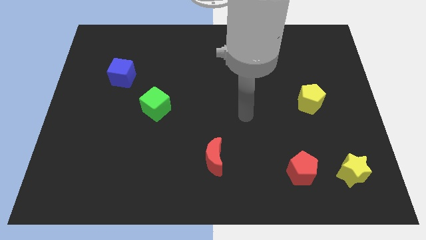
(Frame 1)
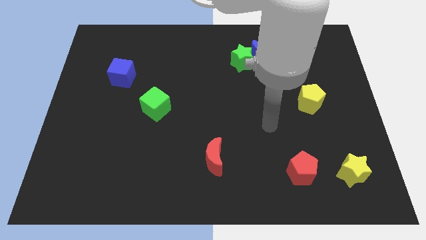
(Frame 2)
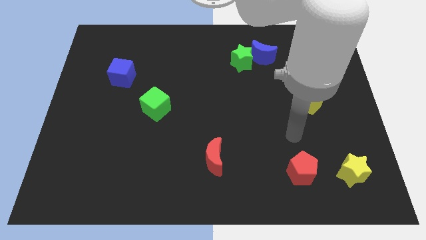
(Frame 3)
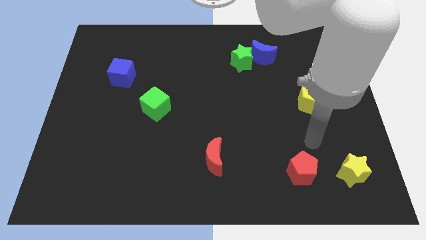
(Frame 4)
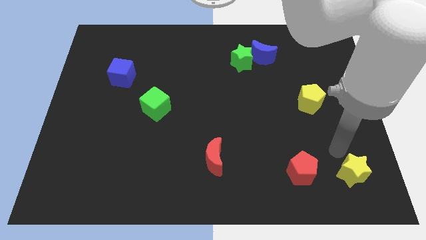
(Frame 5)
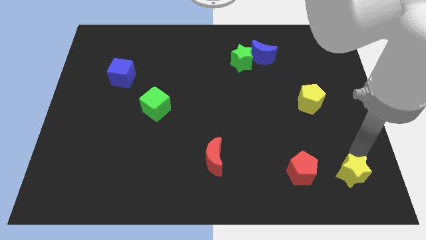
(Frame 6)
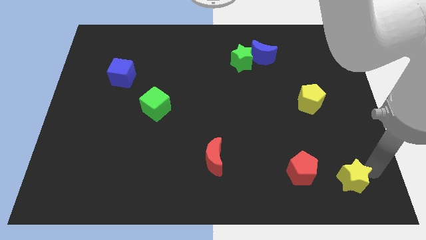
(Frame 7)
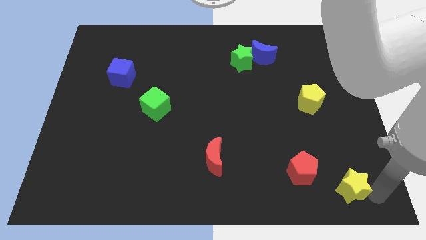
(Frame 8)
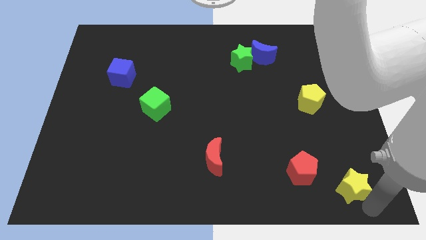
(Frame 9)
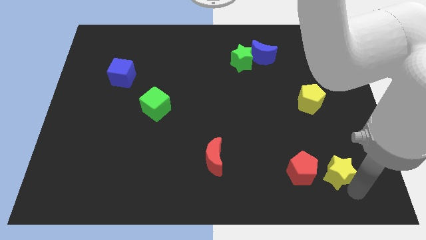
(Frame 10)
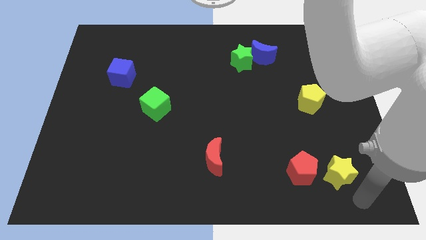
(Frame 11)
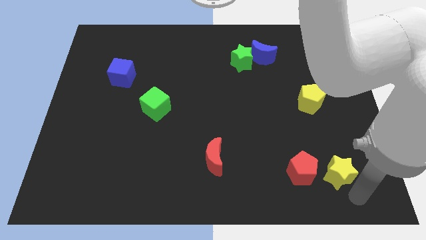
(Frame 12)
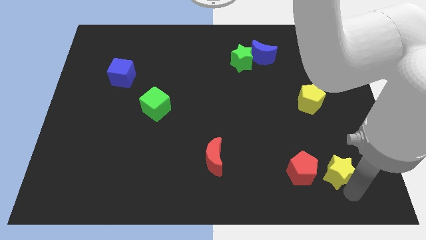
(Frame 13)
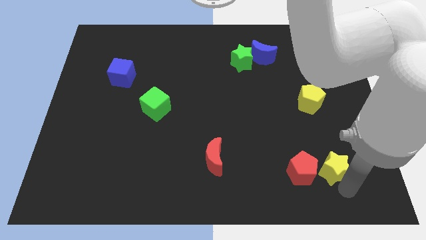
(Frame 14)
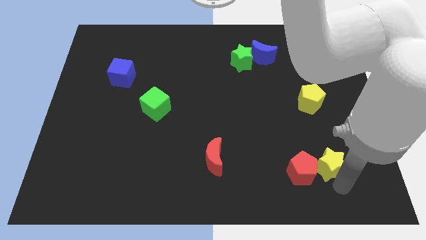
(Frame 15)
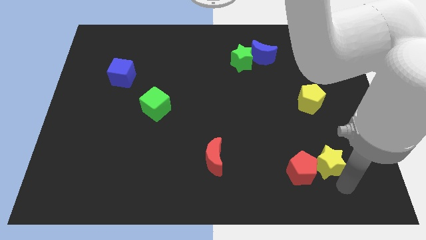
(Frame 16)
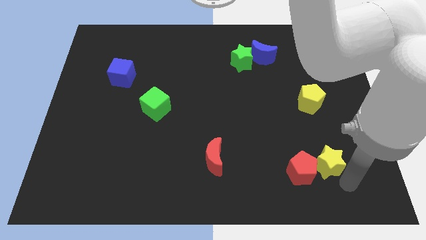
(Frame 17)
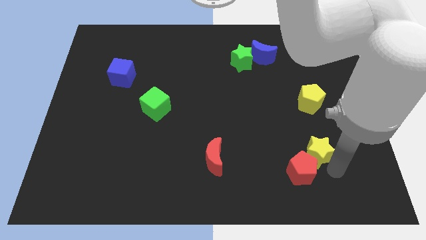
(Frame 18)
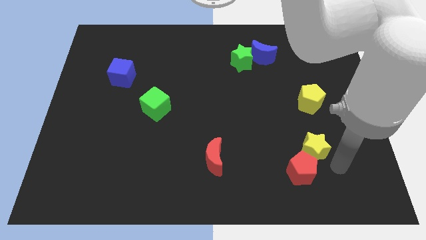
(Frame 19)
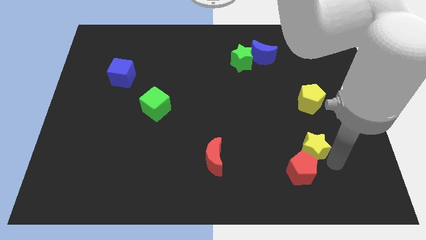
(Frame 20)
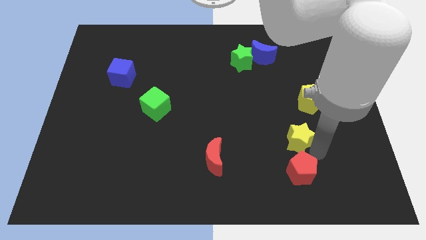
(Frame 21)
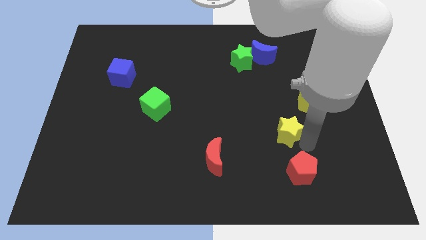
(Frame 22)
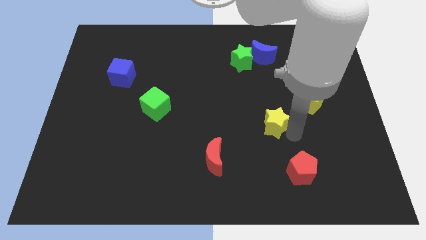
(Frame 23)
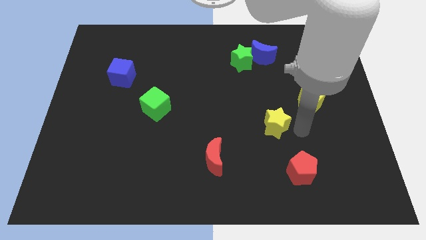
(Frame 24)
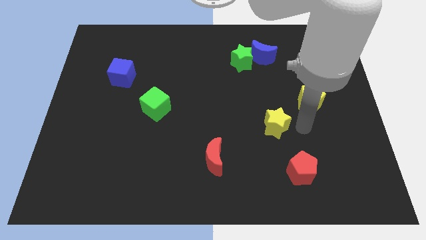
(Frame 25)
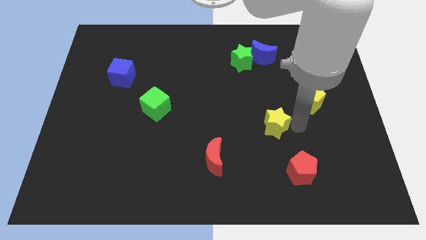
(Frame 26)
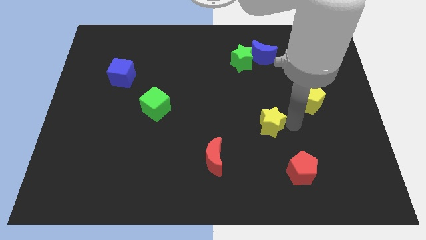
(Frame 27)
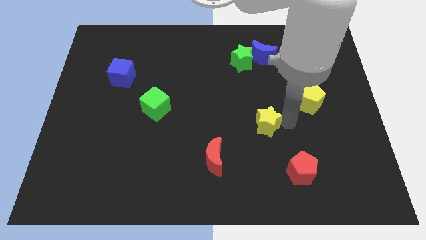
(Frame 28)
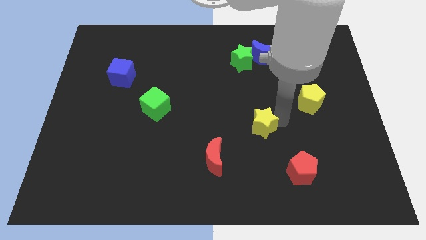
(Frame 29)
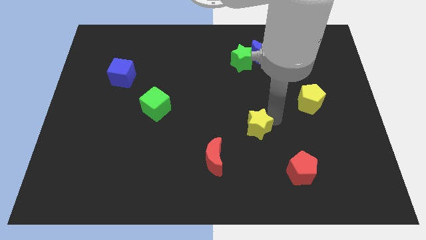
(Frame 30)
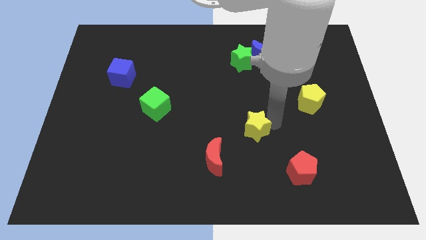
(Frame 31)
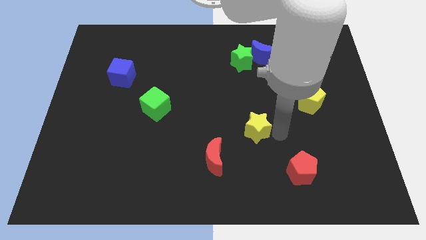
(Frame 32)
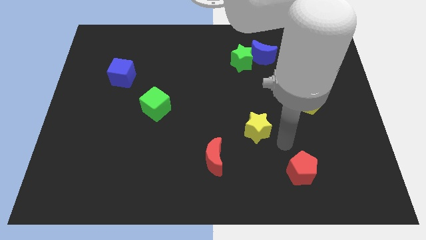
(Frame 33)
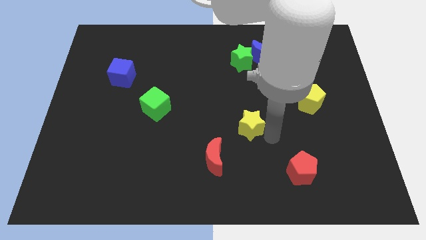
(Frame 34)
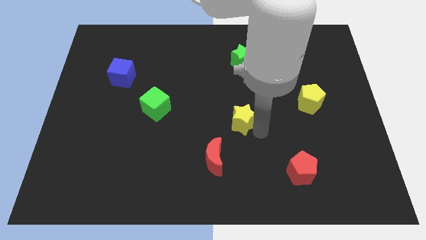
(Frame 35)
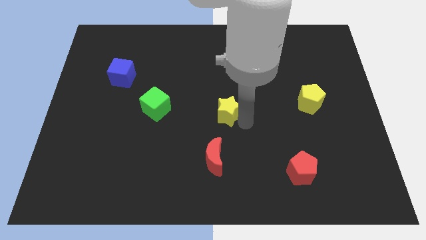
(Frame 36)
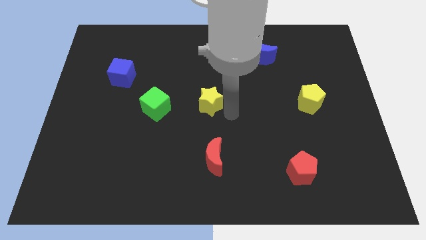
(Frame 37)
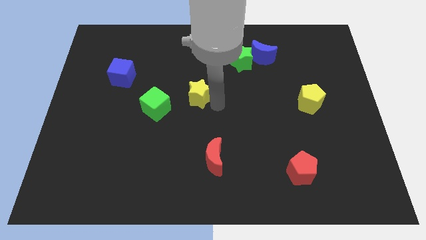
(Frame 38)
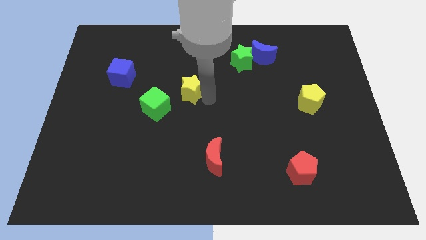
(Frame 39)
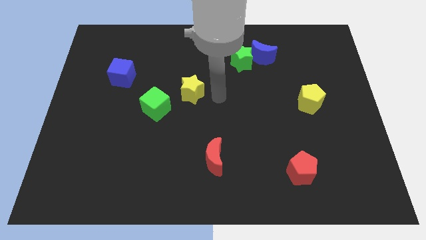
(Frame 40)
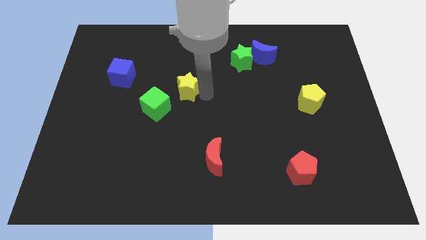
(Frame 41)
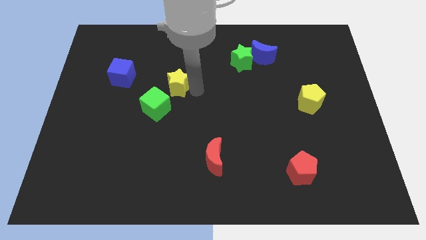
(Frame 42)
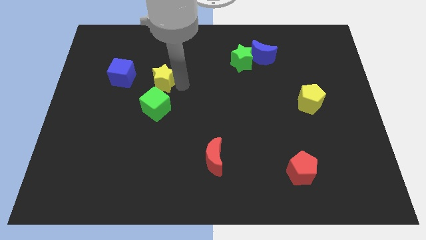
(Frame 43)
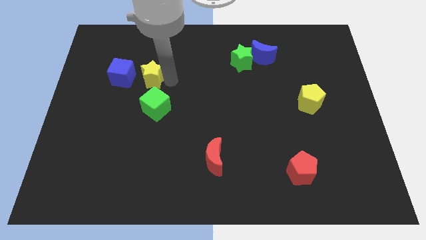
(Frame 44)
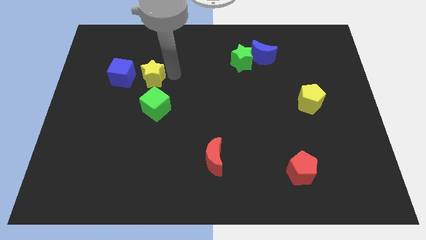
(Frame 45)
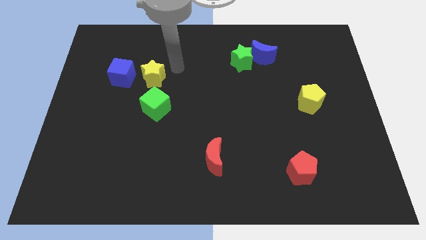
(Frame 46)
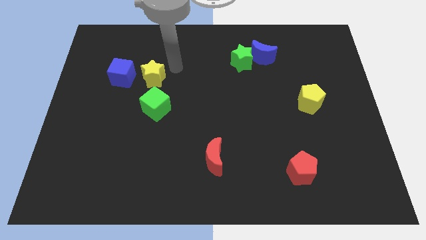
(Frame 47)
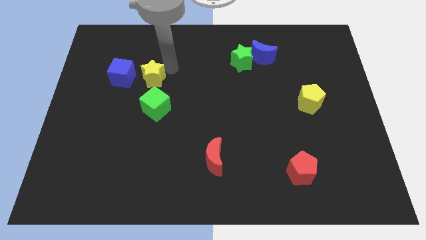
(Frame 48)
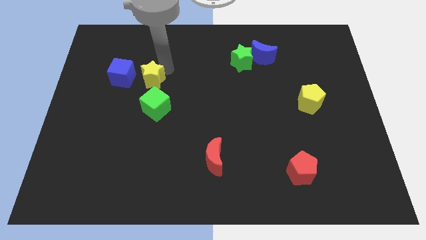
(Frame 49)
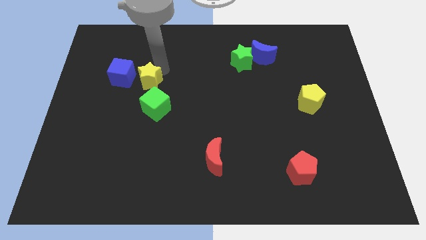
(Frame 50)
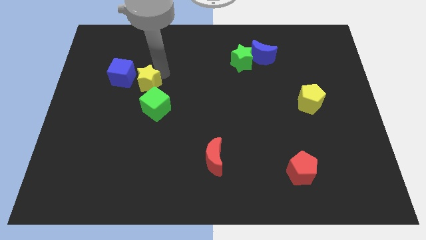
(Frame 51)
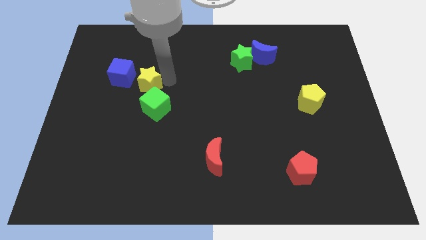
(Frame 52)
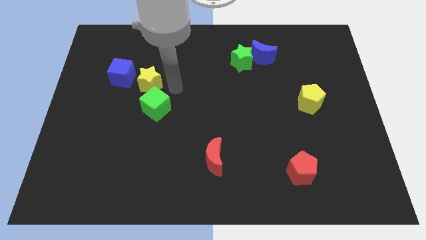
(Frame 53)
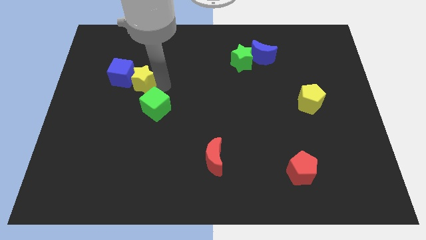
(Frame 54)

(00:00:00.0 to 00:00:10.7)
put the yellow star next to the blue cube

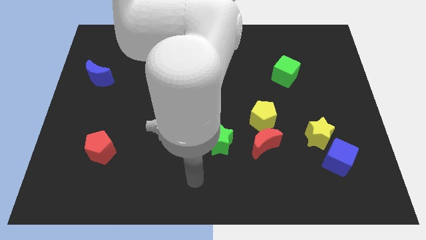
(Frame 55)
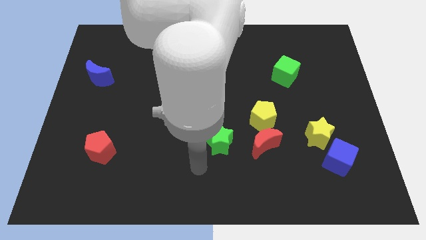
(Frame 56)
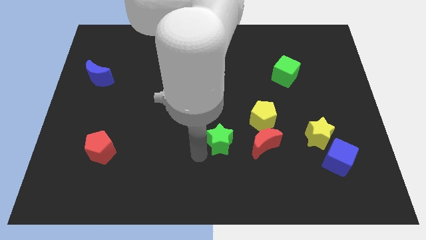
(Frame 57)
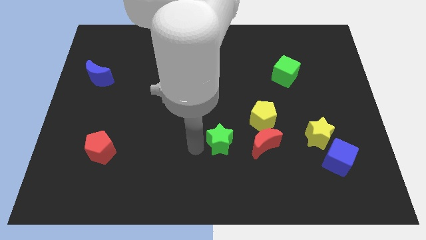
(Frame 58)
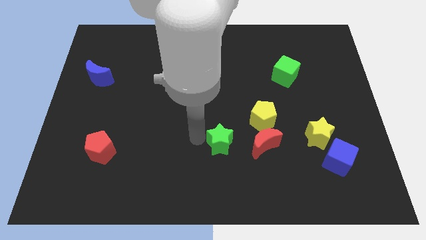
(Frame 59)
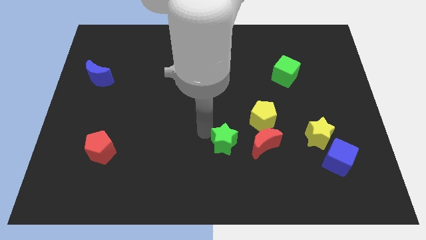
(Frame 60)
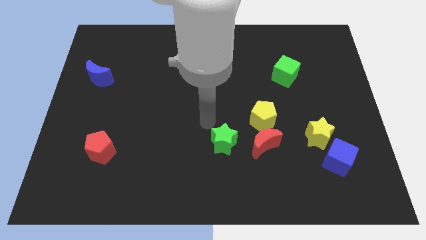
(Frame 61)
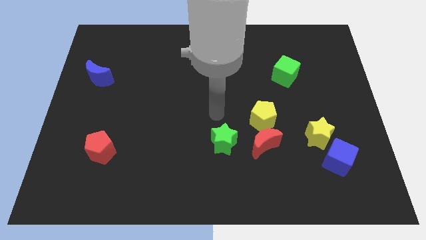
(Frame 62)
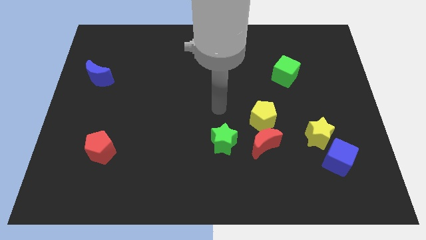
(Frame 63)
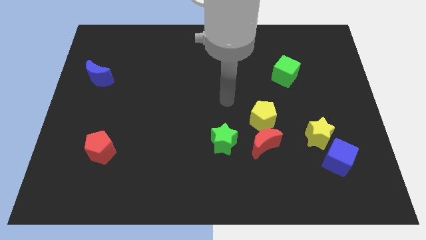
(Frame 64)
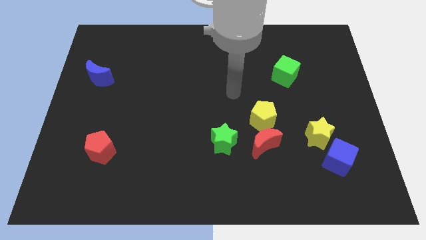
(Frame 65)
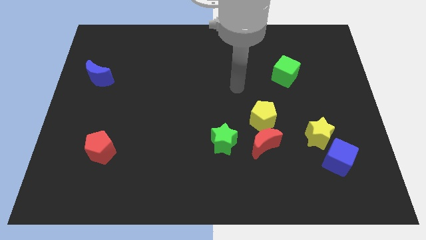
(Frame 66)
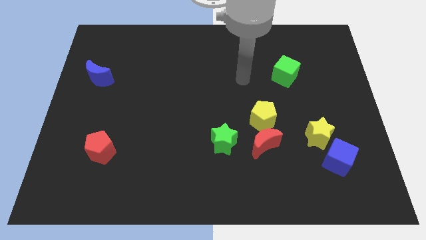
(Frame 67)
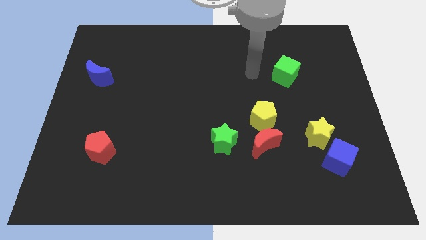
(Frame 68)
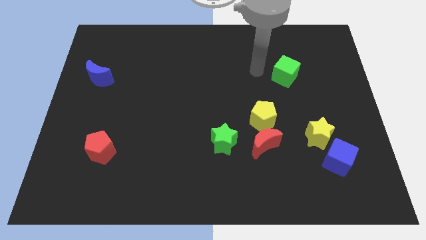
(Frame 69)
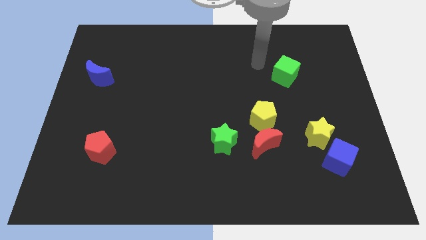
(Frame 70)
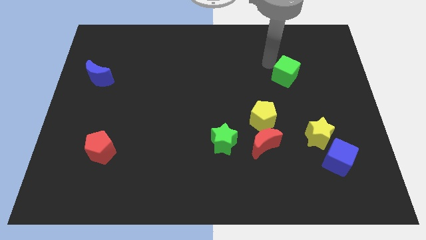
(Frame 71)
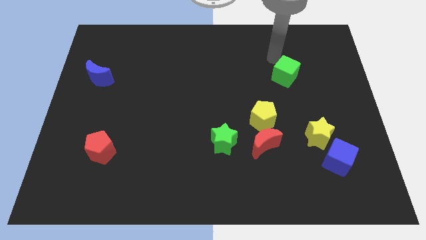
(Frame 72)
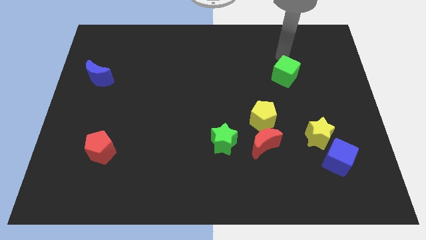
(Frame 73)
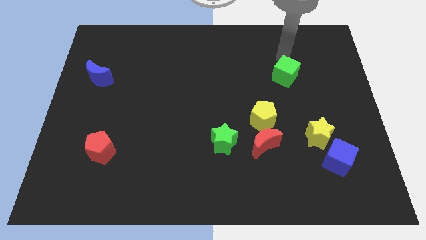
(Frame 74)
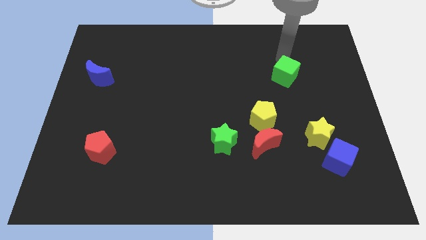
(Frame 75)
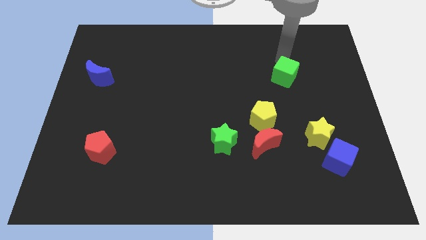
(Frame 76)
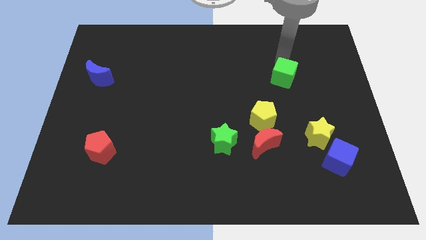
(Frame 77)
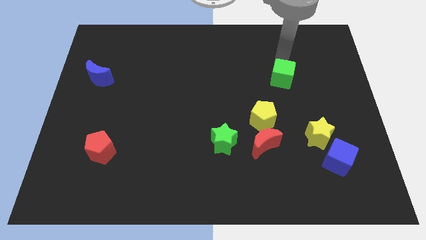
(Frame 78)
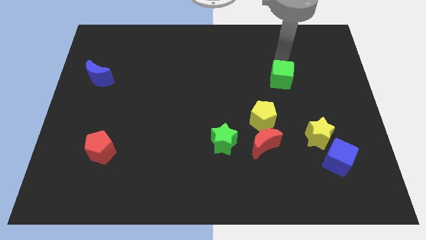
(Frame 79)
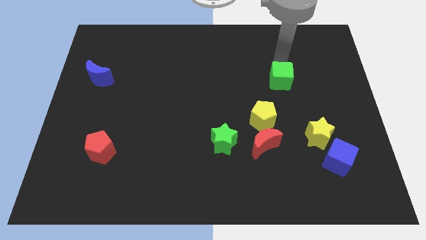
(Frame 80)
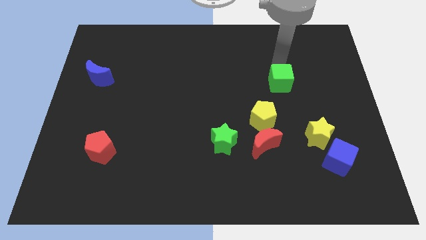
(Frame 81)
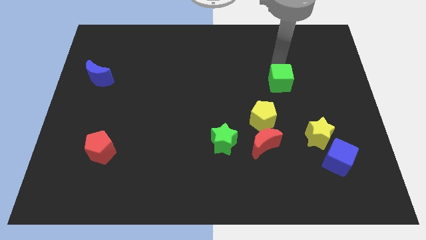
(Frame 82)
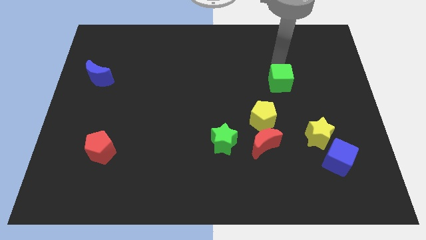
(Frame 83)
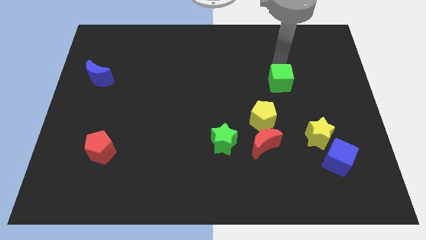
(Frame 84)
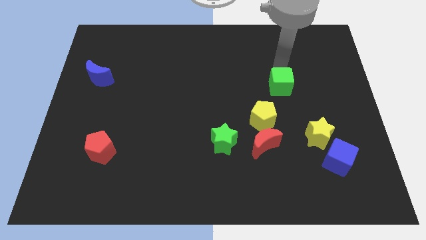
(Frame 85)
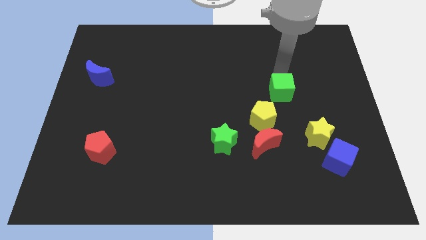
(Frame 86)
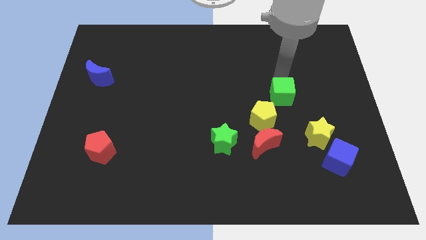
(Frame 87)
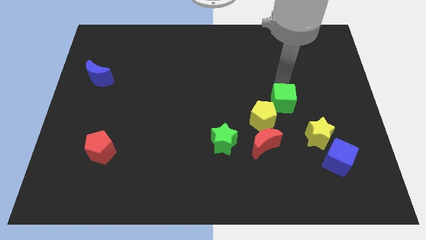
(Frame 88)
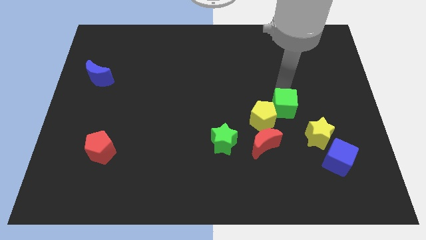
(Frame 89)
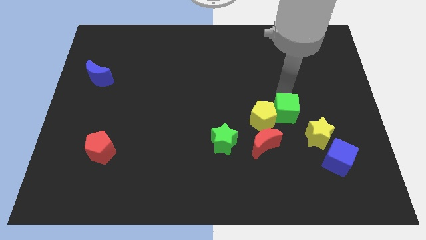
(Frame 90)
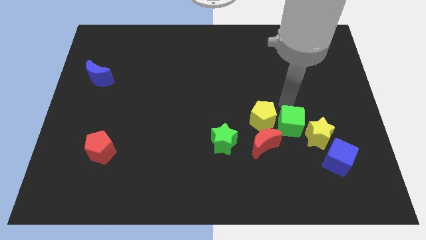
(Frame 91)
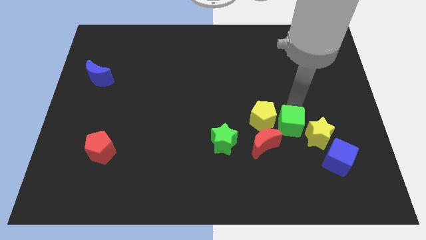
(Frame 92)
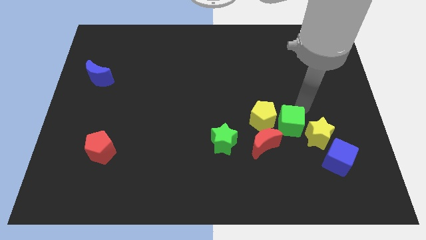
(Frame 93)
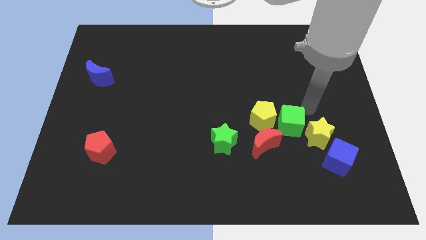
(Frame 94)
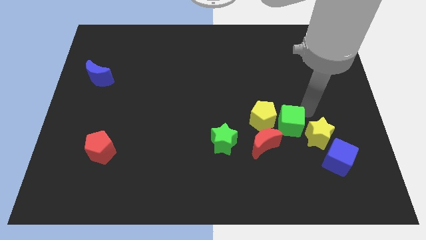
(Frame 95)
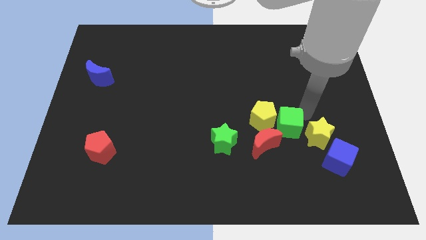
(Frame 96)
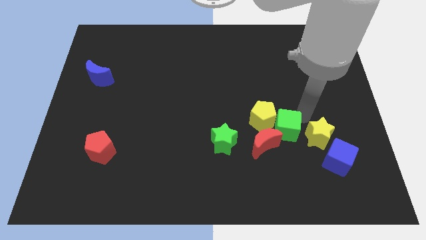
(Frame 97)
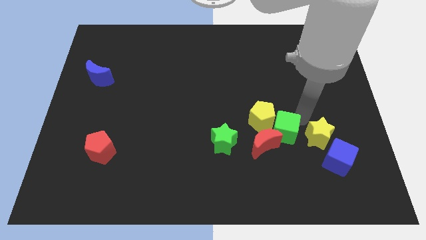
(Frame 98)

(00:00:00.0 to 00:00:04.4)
move the green cube to the red moon
